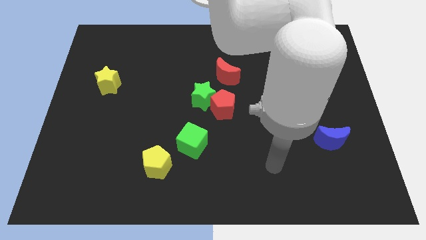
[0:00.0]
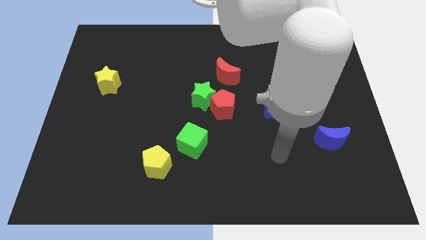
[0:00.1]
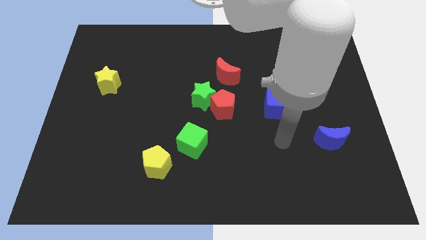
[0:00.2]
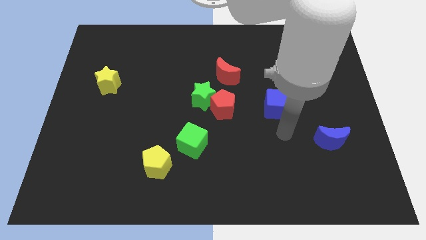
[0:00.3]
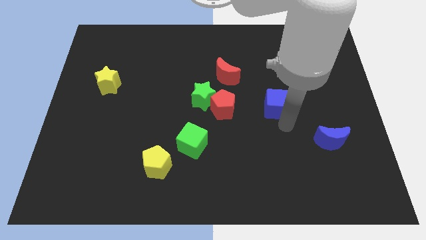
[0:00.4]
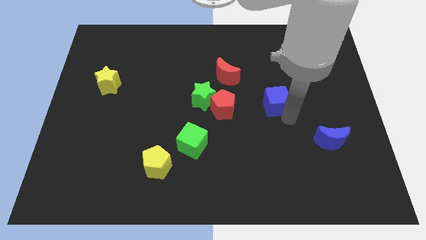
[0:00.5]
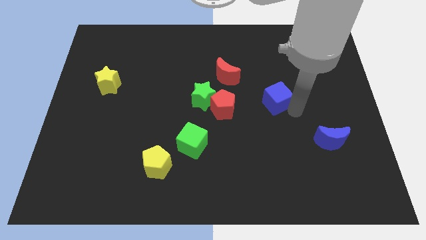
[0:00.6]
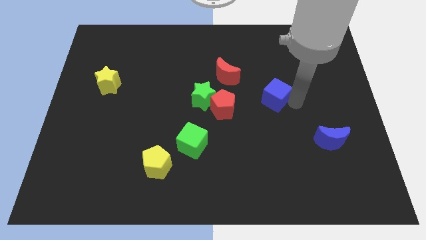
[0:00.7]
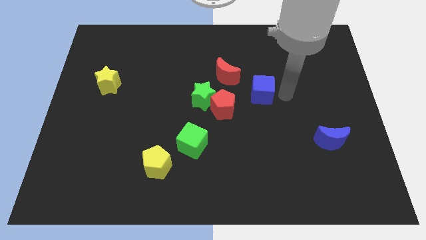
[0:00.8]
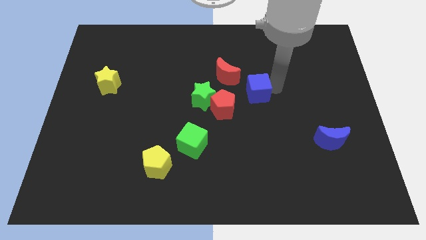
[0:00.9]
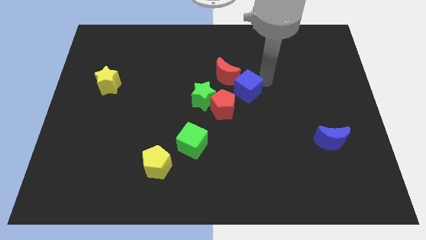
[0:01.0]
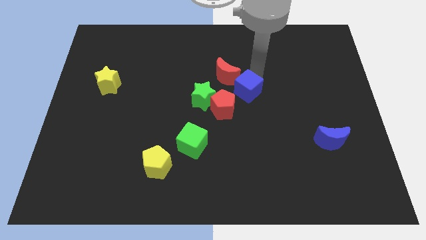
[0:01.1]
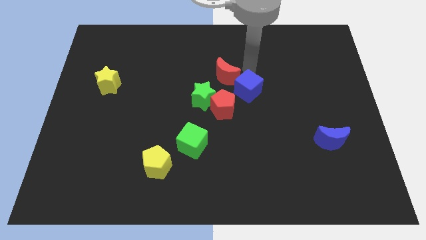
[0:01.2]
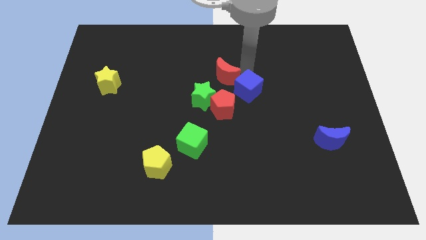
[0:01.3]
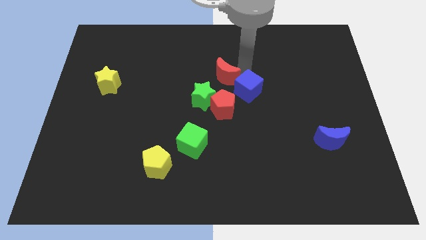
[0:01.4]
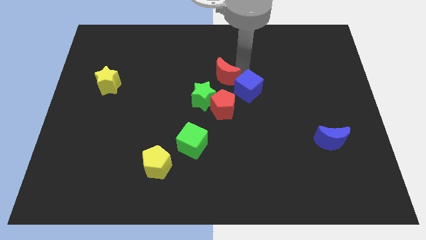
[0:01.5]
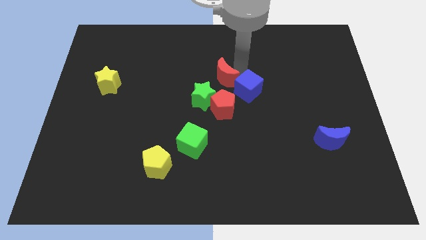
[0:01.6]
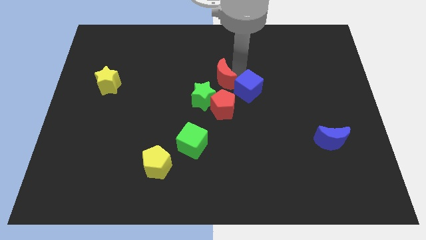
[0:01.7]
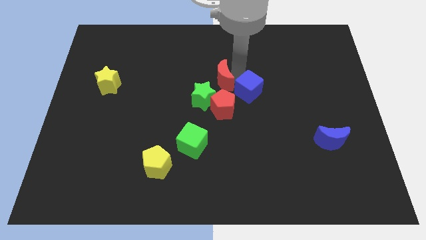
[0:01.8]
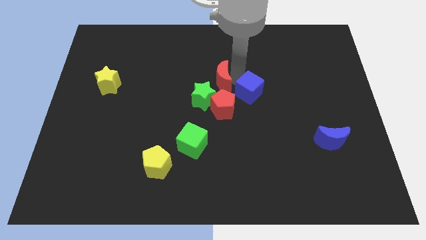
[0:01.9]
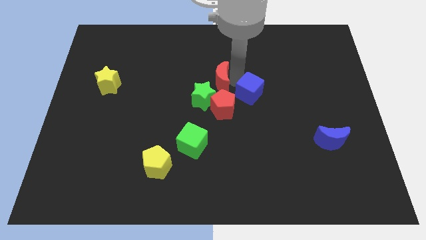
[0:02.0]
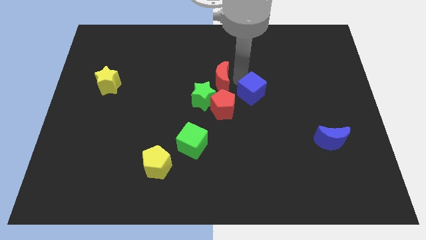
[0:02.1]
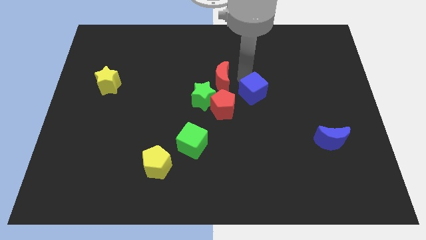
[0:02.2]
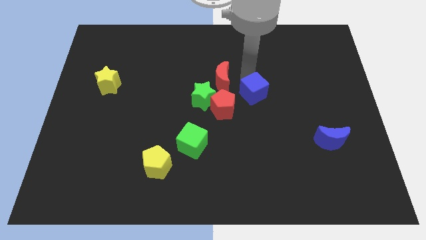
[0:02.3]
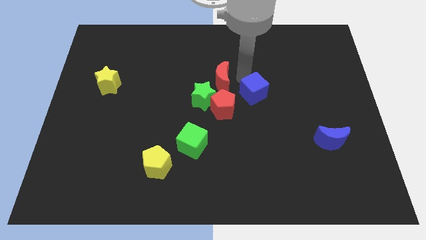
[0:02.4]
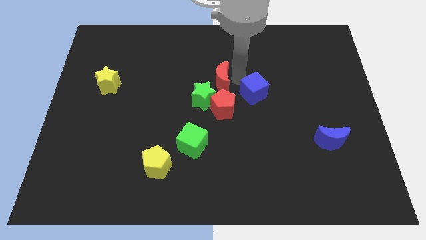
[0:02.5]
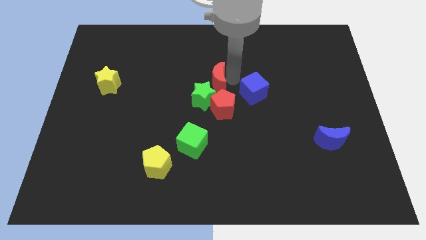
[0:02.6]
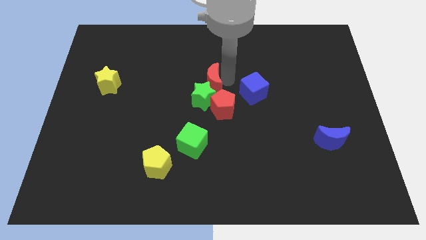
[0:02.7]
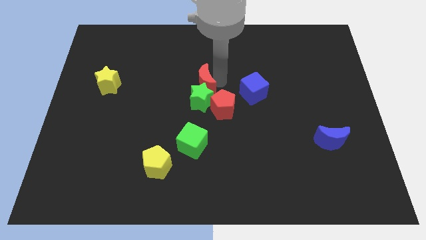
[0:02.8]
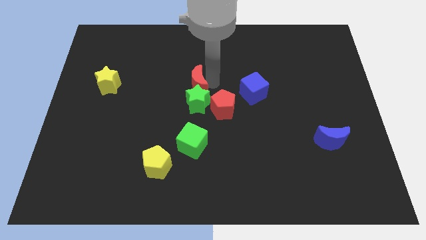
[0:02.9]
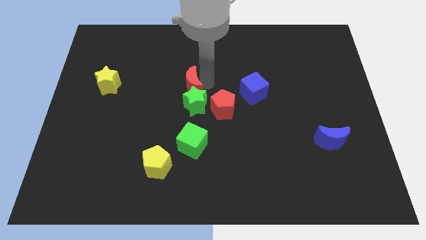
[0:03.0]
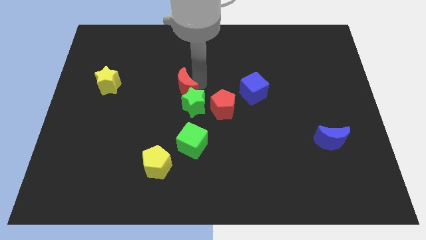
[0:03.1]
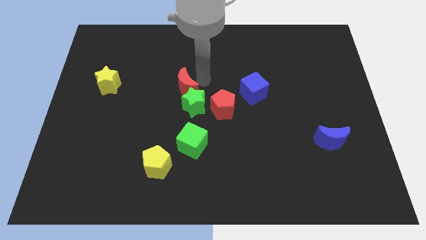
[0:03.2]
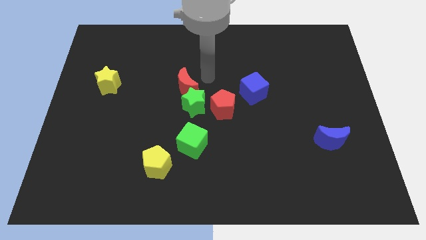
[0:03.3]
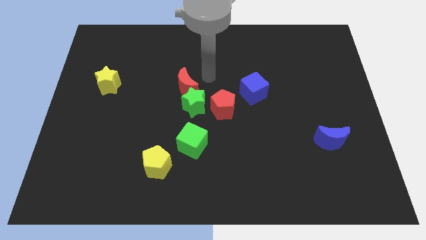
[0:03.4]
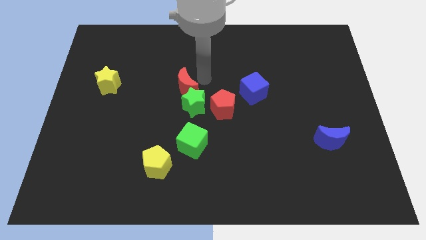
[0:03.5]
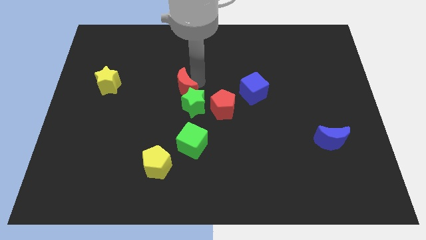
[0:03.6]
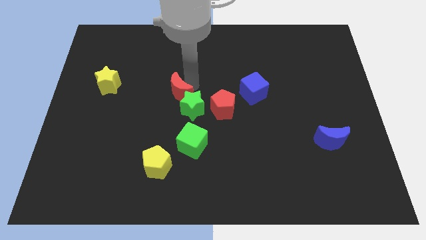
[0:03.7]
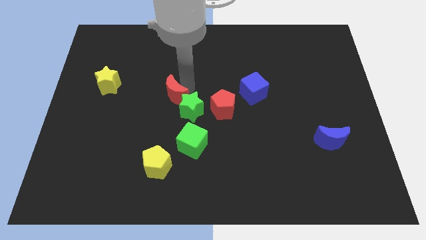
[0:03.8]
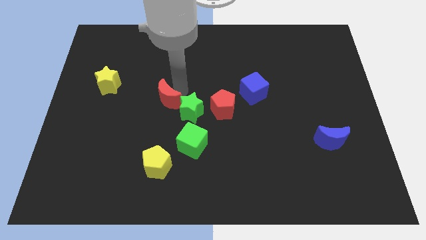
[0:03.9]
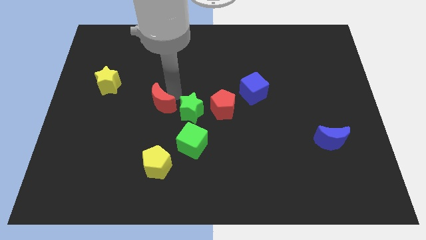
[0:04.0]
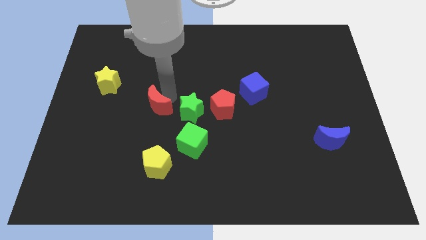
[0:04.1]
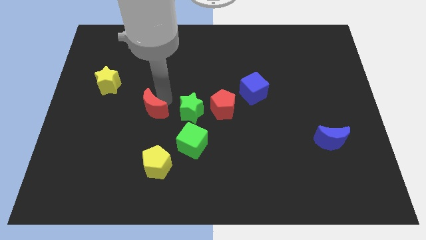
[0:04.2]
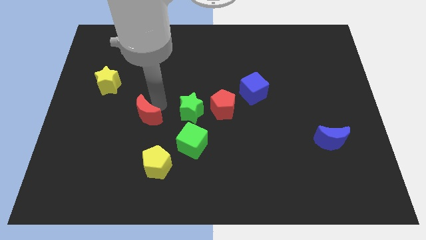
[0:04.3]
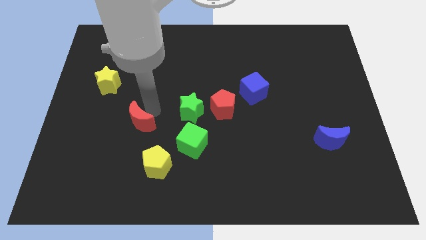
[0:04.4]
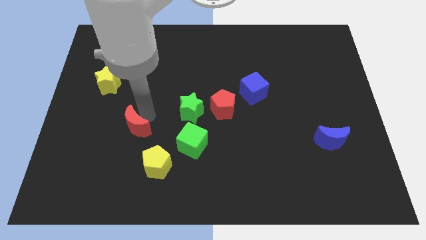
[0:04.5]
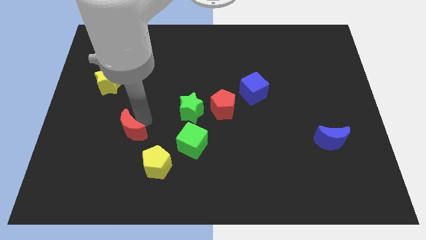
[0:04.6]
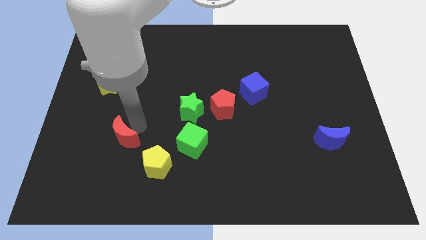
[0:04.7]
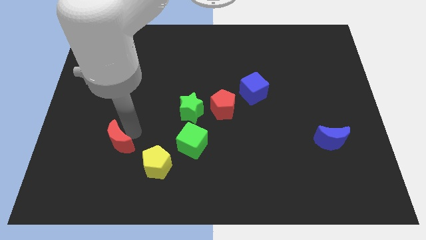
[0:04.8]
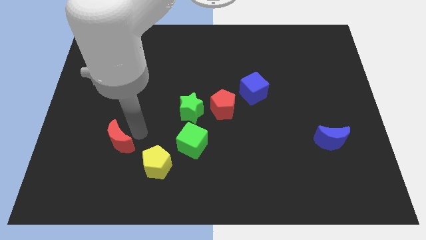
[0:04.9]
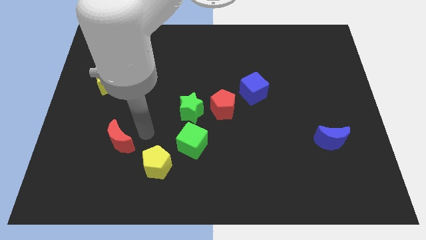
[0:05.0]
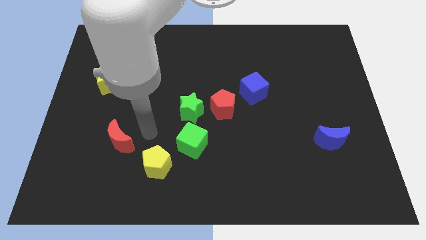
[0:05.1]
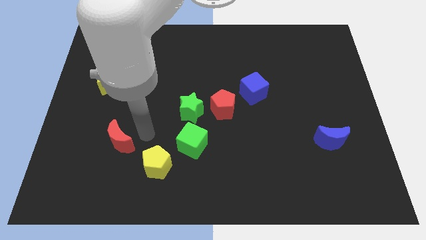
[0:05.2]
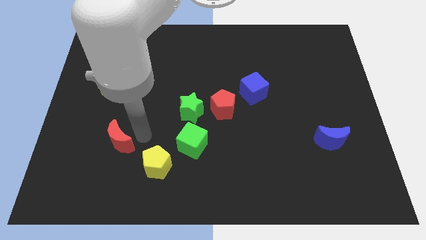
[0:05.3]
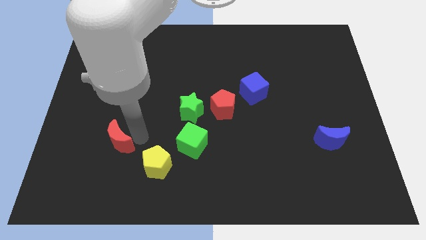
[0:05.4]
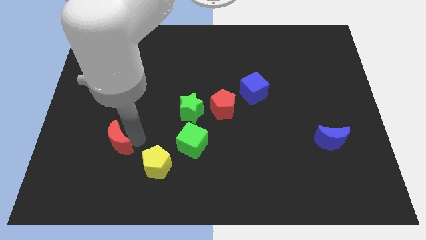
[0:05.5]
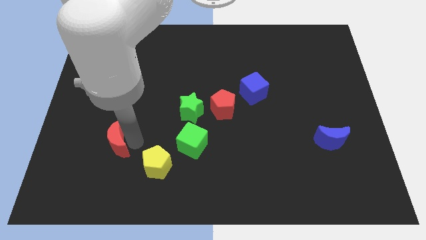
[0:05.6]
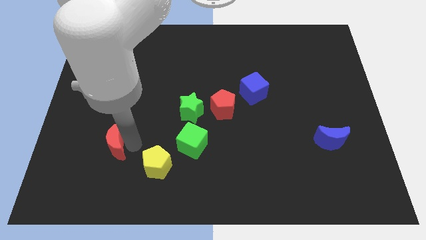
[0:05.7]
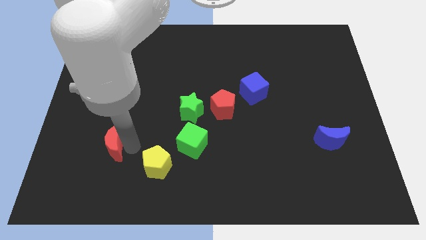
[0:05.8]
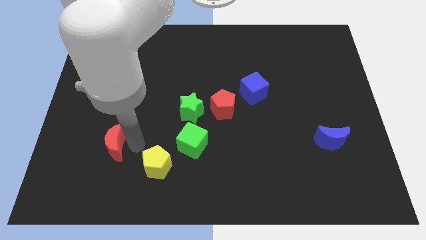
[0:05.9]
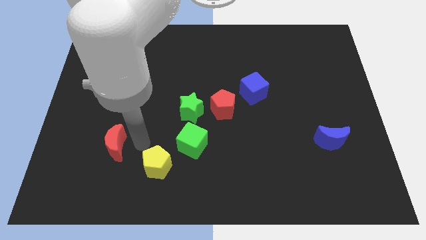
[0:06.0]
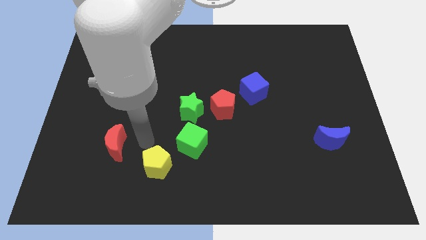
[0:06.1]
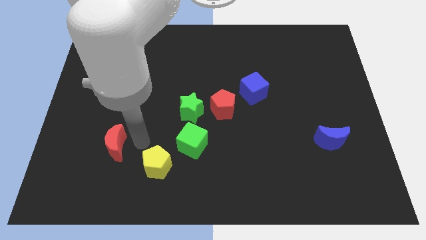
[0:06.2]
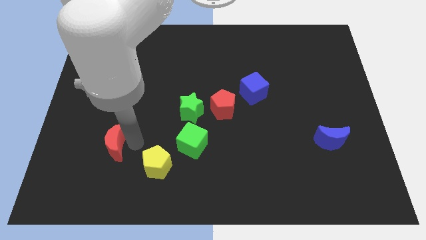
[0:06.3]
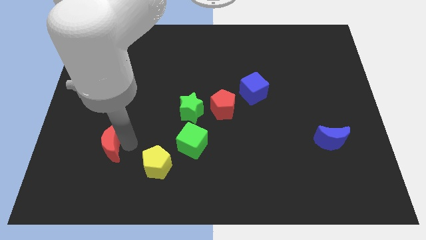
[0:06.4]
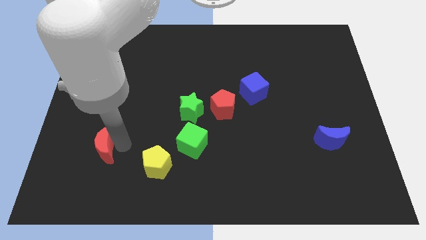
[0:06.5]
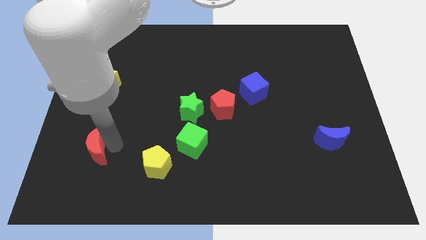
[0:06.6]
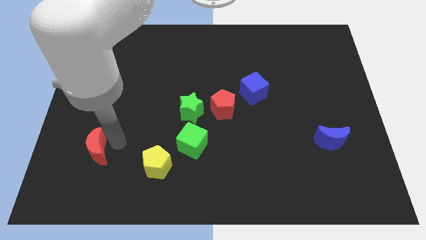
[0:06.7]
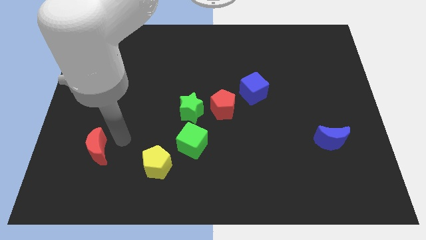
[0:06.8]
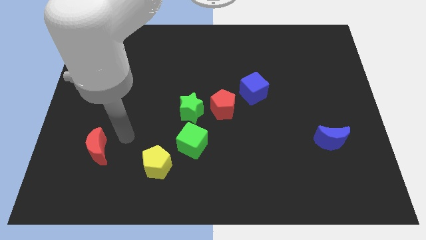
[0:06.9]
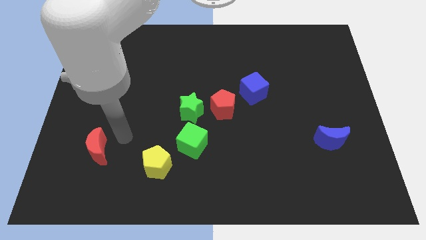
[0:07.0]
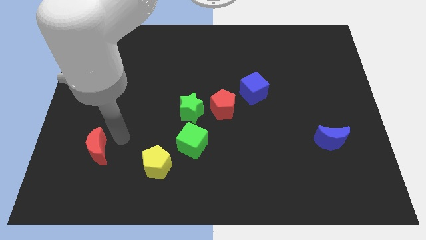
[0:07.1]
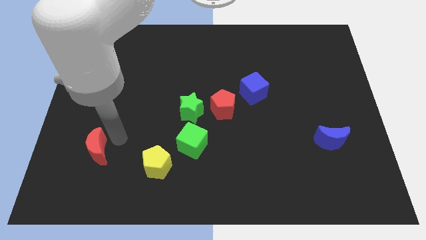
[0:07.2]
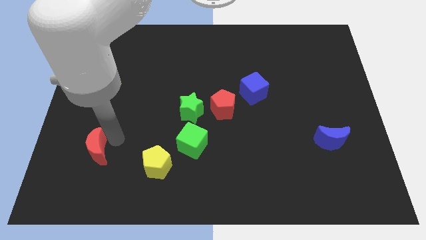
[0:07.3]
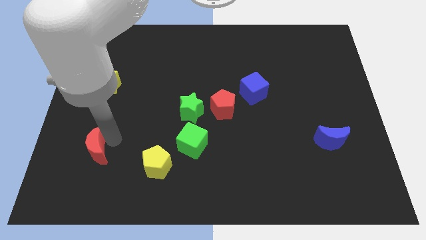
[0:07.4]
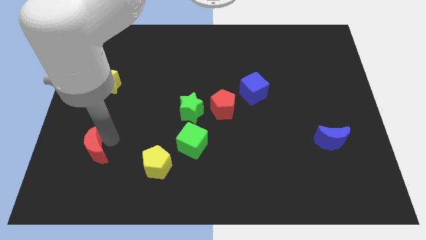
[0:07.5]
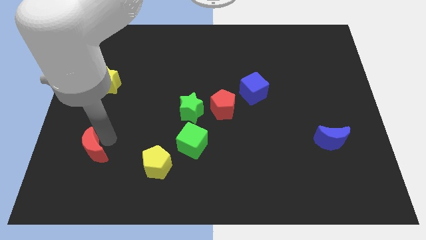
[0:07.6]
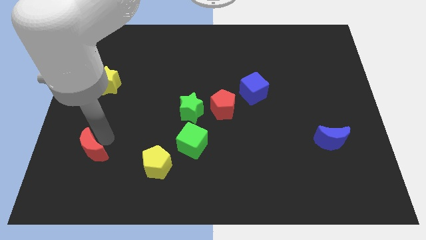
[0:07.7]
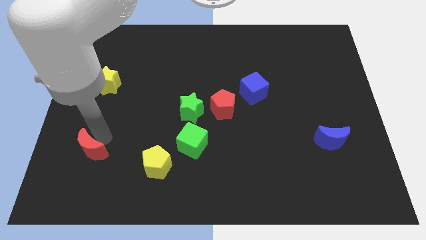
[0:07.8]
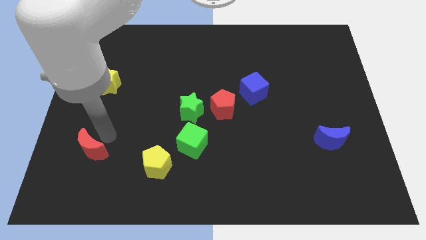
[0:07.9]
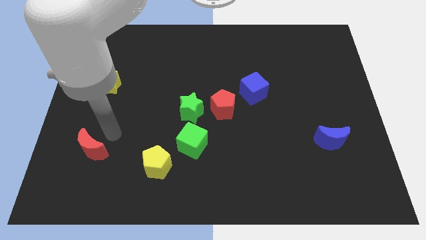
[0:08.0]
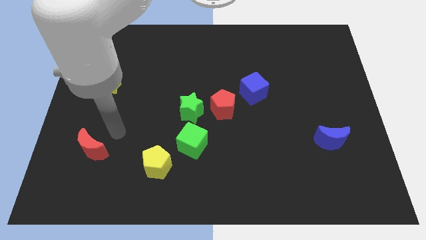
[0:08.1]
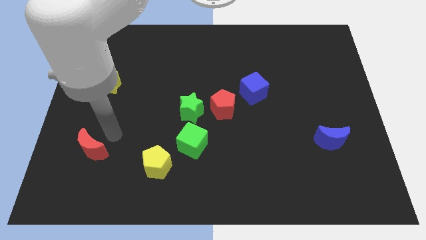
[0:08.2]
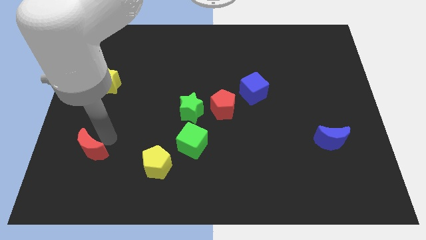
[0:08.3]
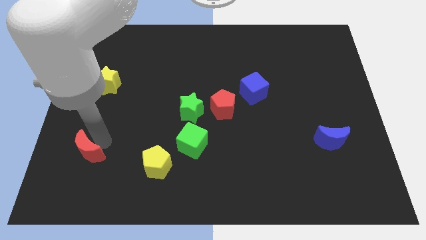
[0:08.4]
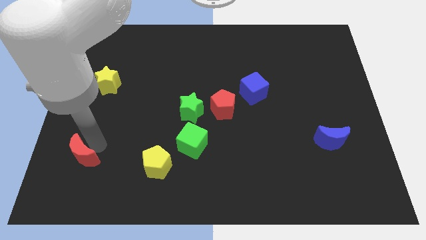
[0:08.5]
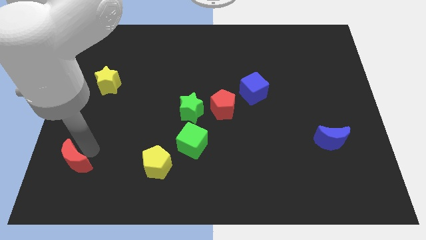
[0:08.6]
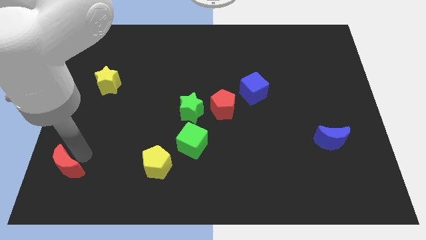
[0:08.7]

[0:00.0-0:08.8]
push the red moon to the bottom left of the board
